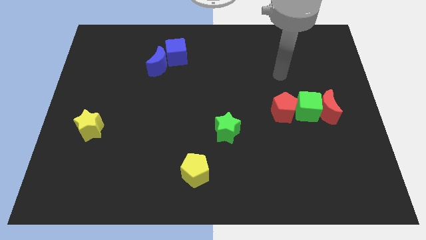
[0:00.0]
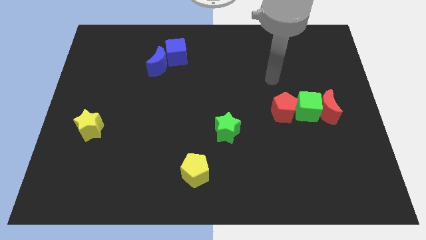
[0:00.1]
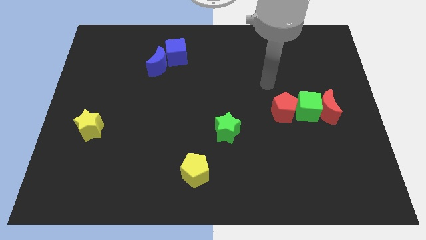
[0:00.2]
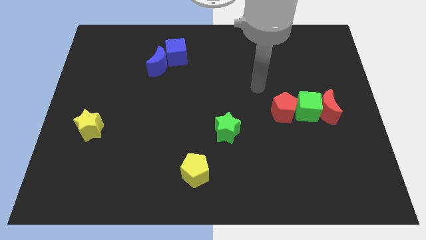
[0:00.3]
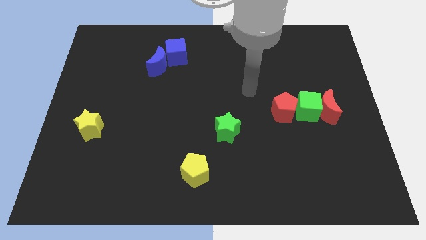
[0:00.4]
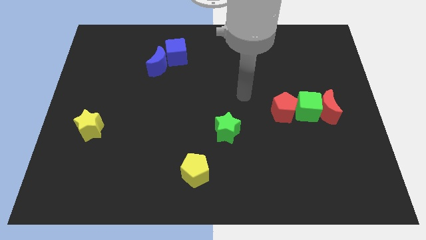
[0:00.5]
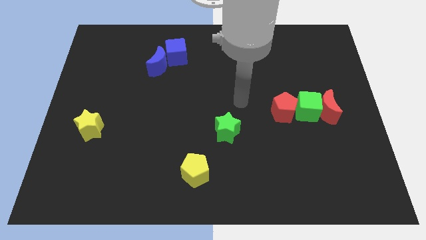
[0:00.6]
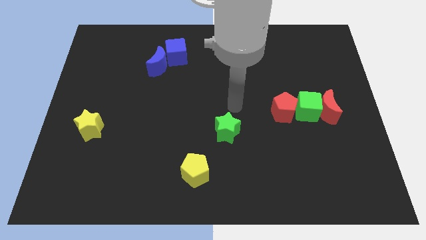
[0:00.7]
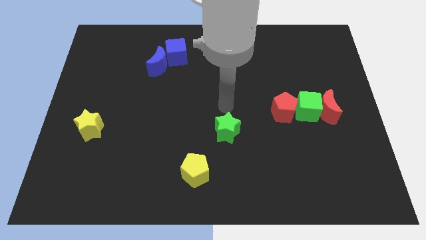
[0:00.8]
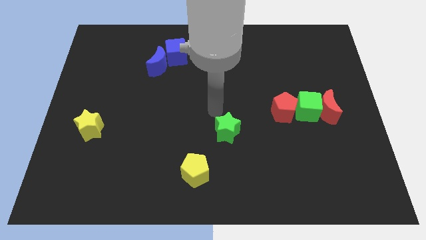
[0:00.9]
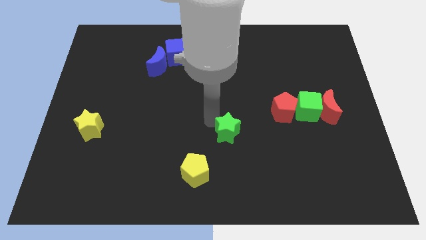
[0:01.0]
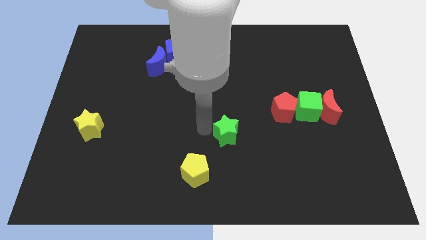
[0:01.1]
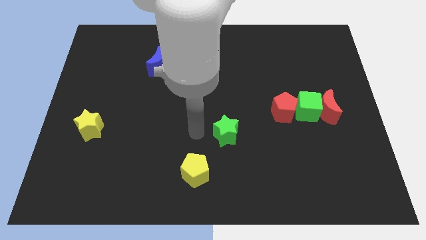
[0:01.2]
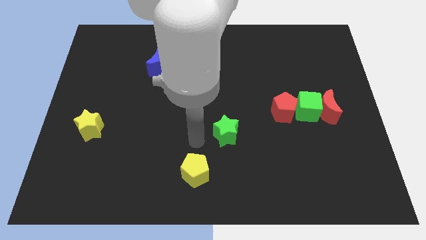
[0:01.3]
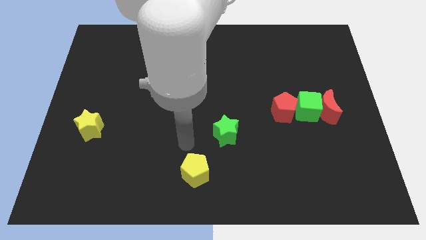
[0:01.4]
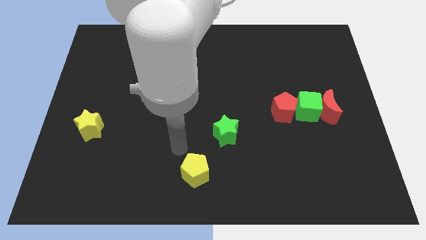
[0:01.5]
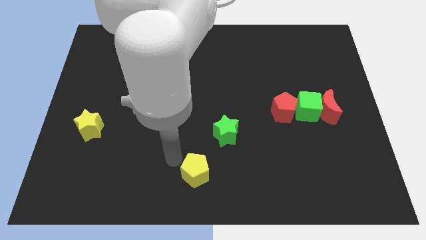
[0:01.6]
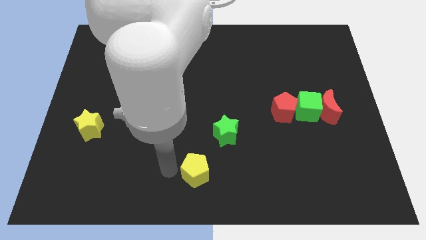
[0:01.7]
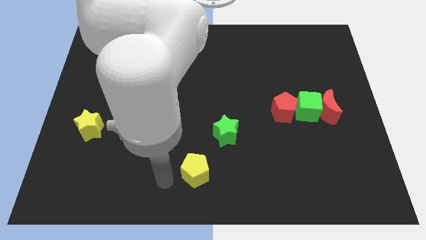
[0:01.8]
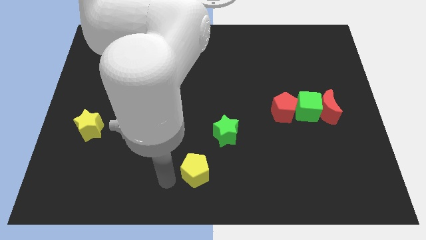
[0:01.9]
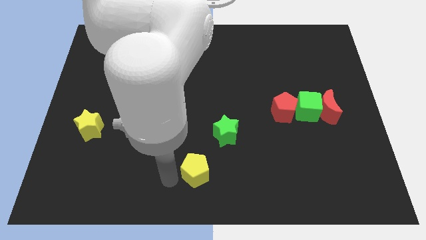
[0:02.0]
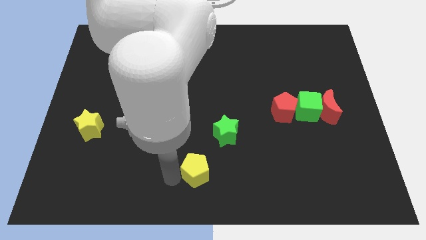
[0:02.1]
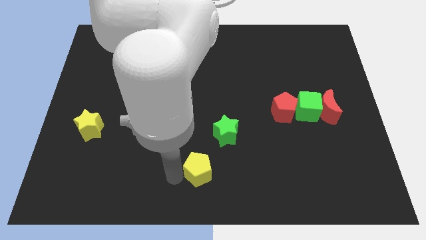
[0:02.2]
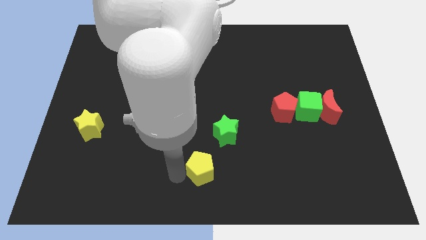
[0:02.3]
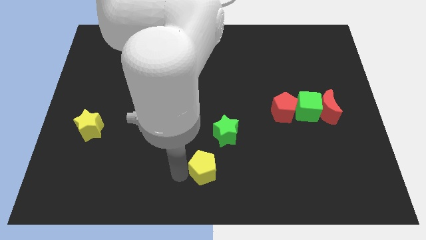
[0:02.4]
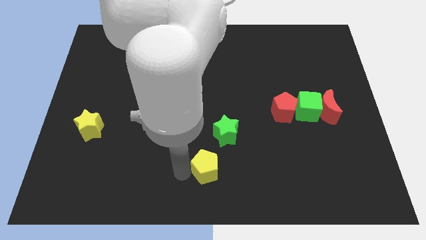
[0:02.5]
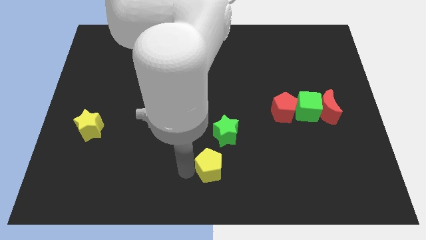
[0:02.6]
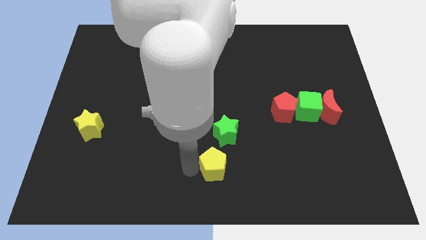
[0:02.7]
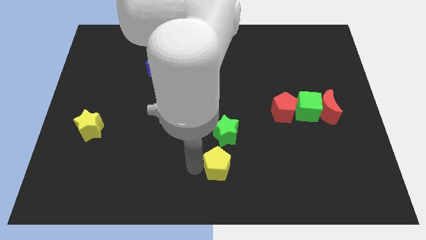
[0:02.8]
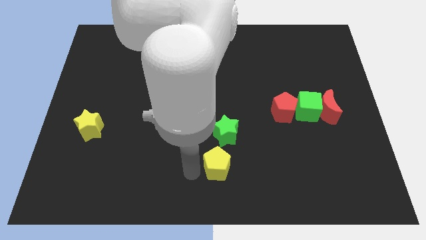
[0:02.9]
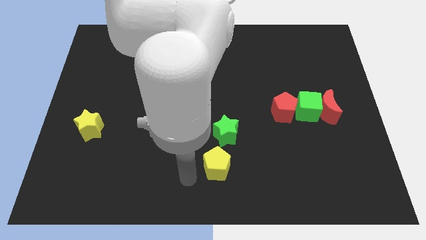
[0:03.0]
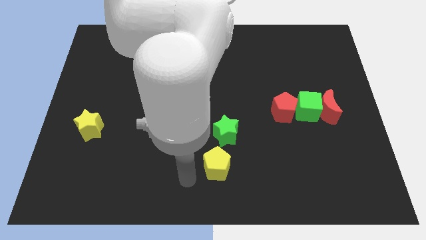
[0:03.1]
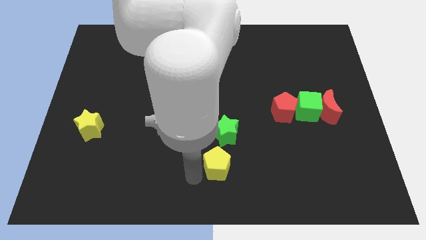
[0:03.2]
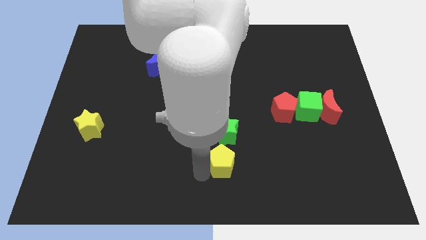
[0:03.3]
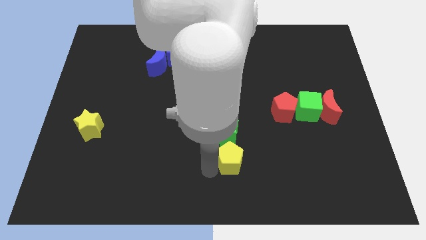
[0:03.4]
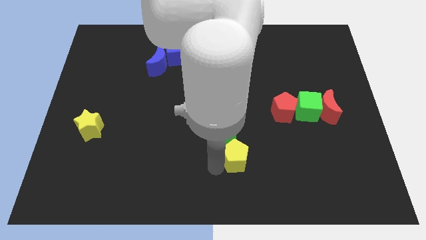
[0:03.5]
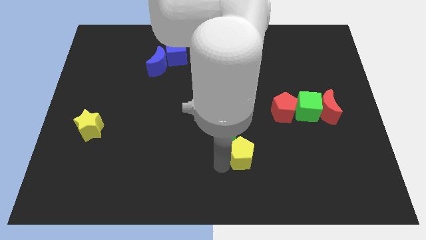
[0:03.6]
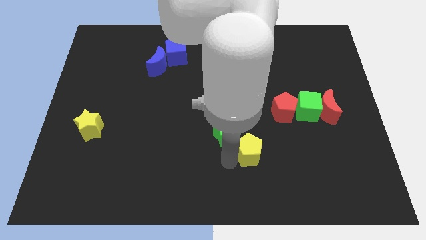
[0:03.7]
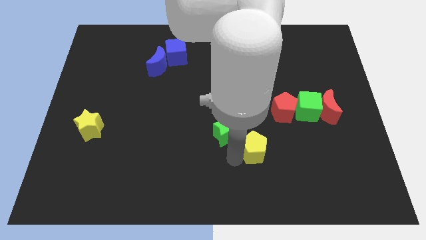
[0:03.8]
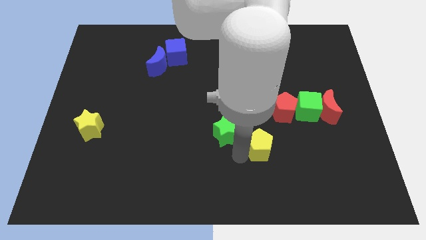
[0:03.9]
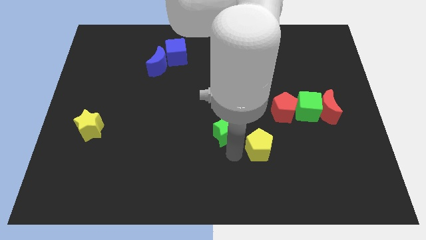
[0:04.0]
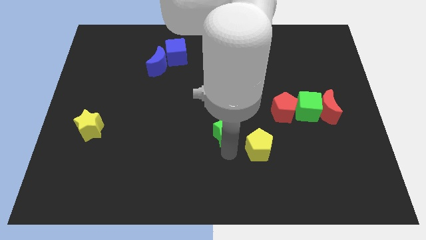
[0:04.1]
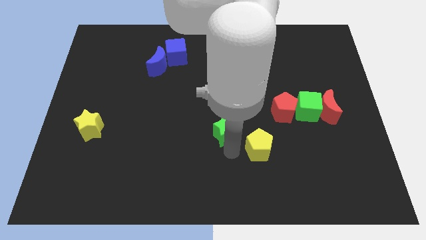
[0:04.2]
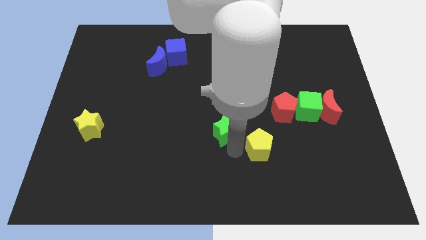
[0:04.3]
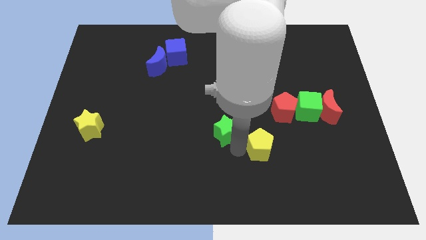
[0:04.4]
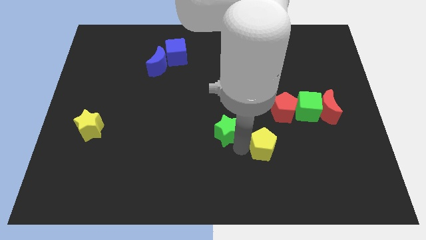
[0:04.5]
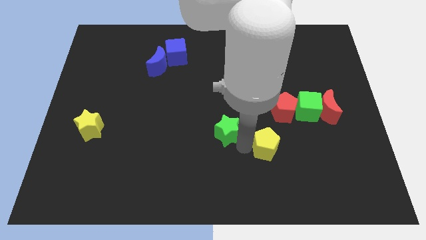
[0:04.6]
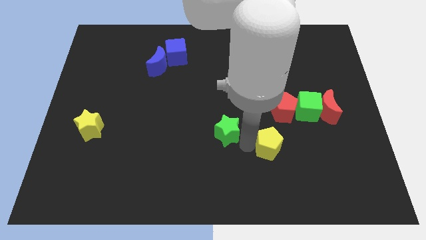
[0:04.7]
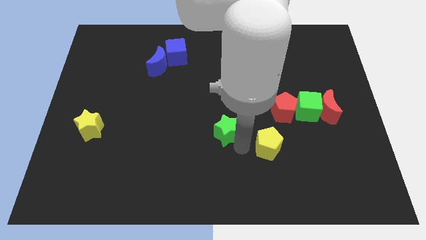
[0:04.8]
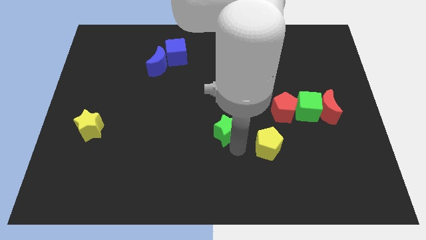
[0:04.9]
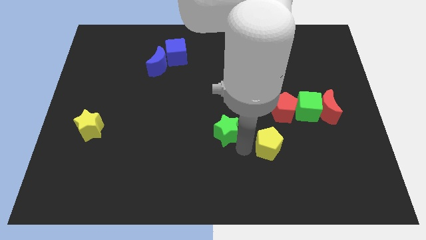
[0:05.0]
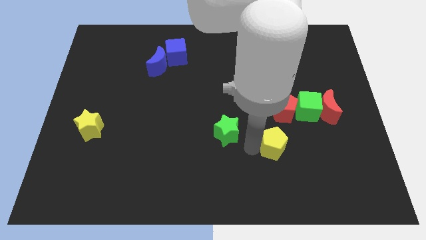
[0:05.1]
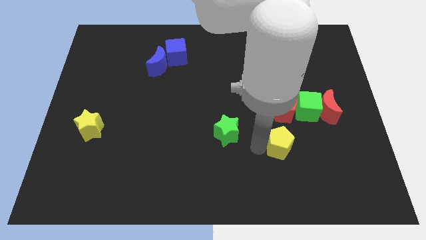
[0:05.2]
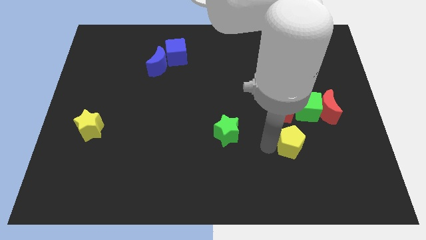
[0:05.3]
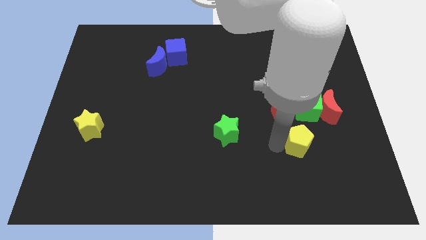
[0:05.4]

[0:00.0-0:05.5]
slide the yellow pentagon to the bottom side of the green cube

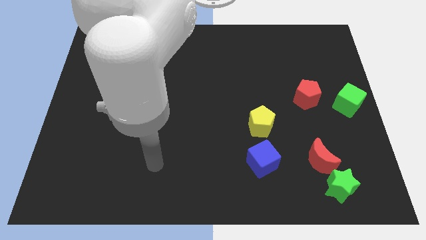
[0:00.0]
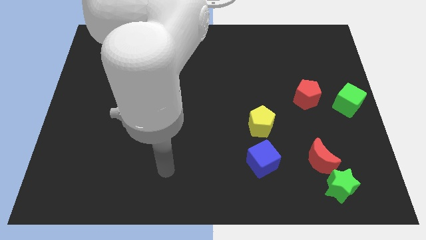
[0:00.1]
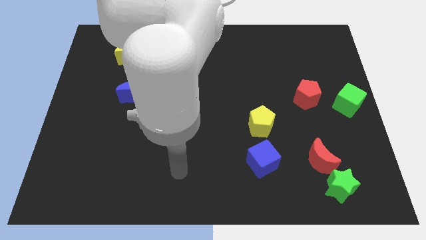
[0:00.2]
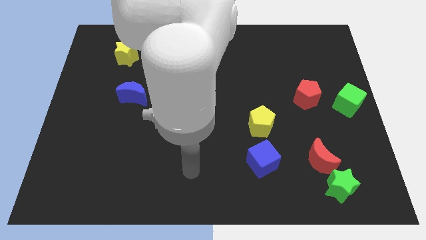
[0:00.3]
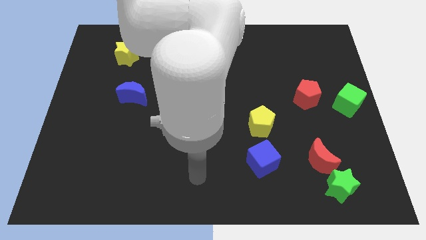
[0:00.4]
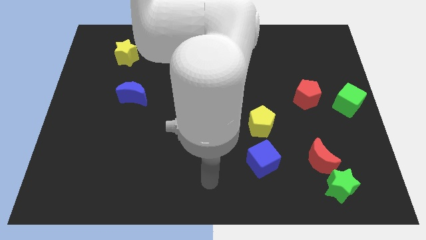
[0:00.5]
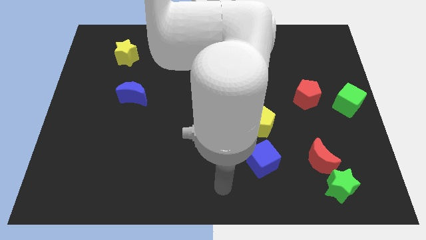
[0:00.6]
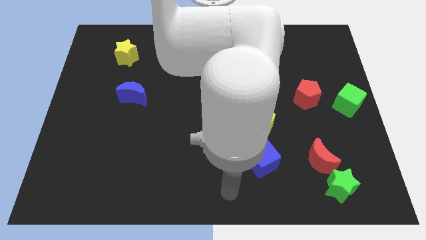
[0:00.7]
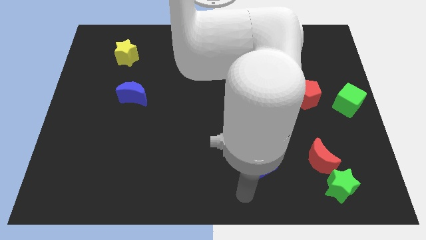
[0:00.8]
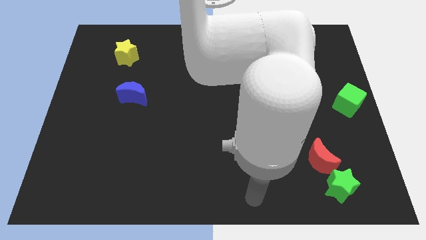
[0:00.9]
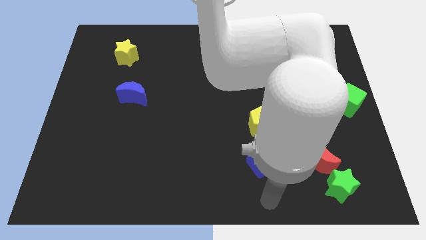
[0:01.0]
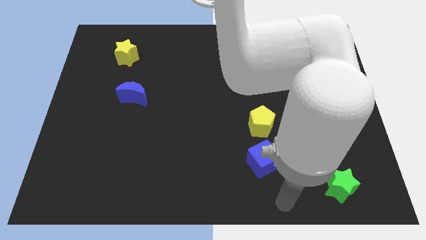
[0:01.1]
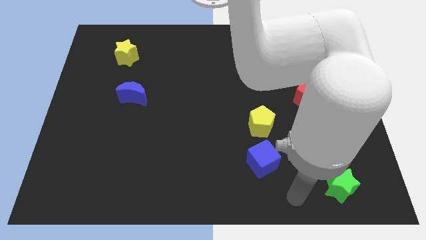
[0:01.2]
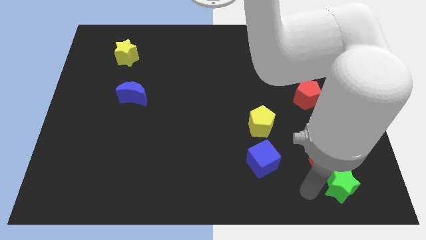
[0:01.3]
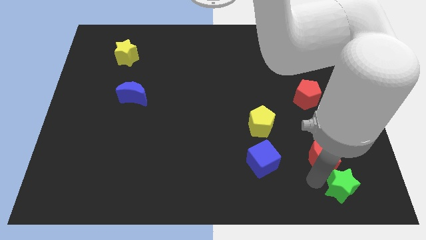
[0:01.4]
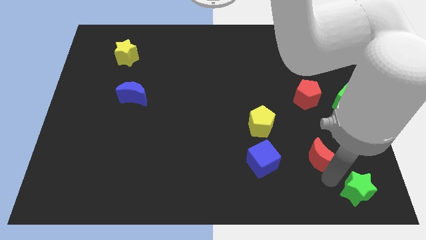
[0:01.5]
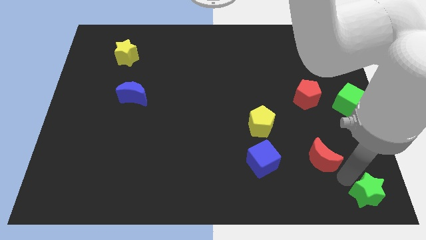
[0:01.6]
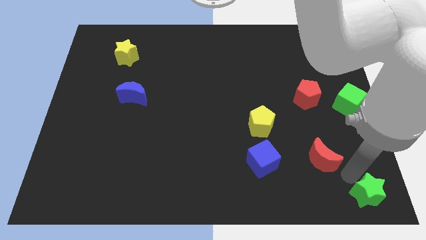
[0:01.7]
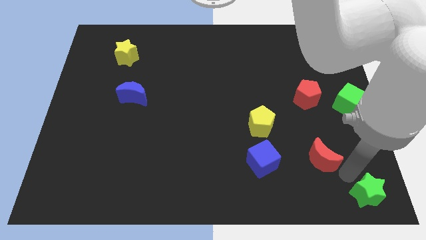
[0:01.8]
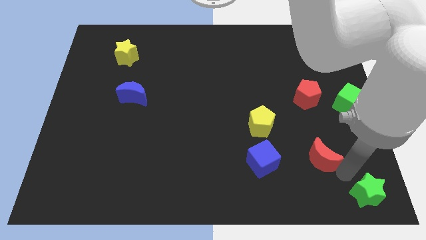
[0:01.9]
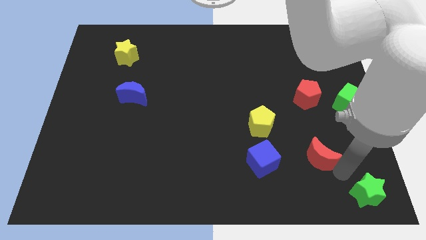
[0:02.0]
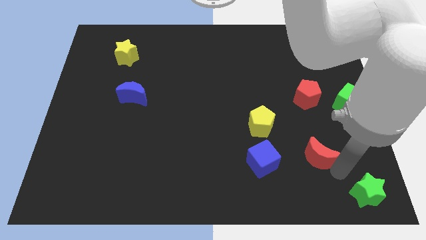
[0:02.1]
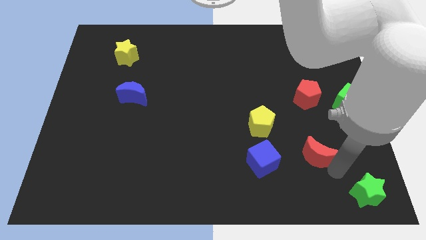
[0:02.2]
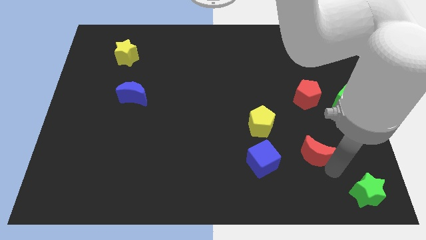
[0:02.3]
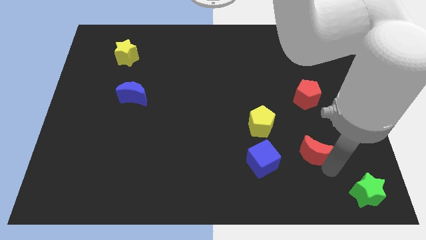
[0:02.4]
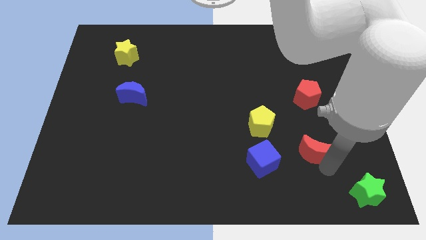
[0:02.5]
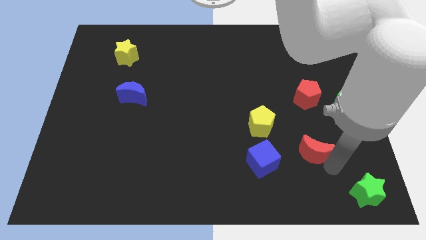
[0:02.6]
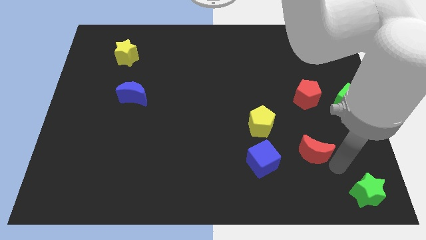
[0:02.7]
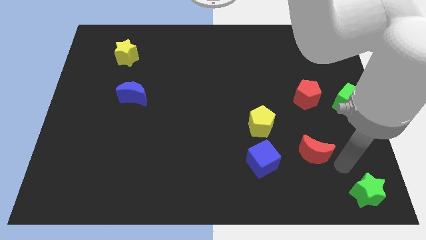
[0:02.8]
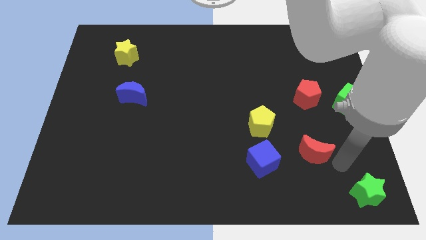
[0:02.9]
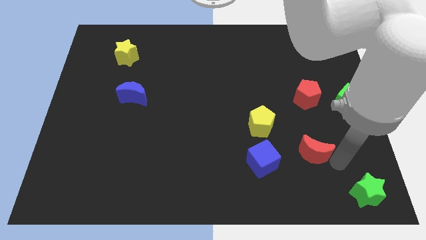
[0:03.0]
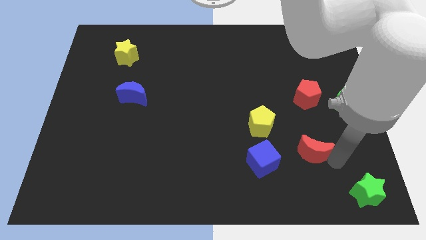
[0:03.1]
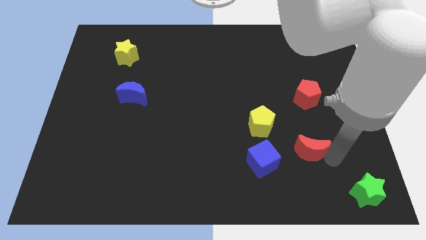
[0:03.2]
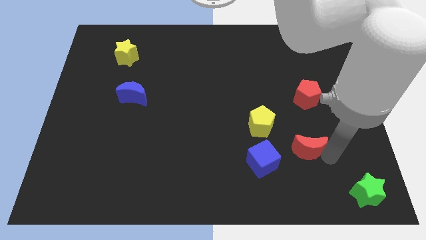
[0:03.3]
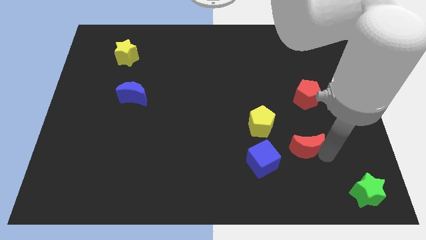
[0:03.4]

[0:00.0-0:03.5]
slide the red moon to the top right of the blue cube
